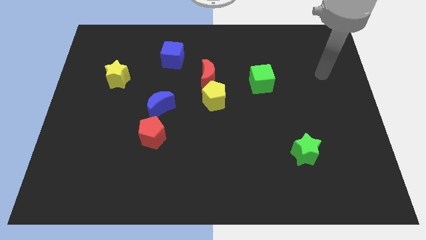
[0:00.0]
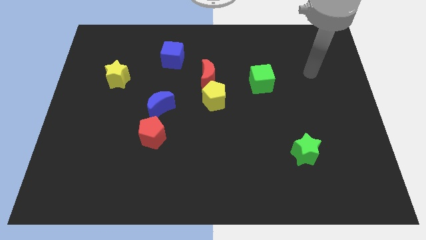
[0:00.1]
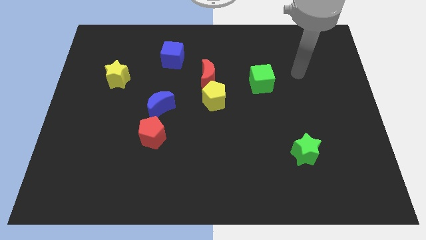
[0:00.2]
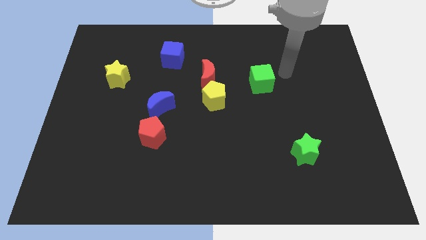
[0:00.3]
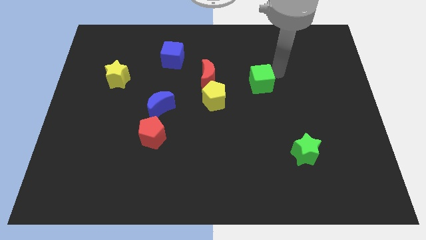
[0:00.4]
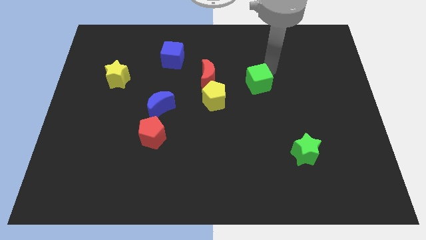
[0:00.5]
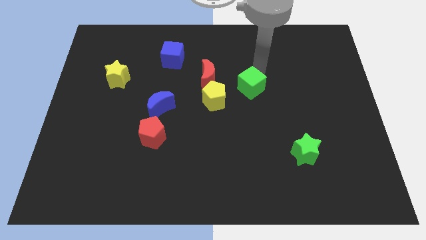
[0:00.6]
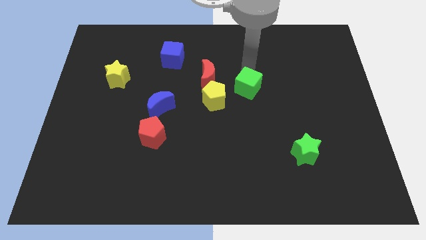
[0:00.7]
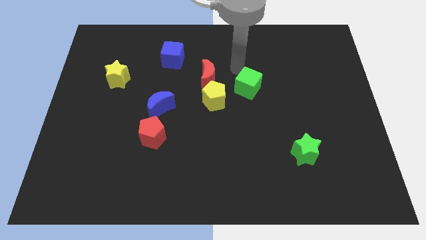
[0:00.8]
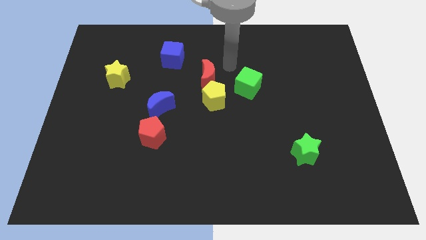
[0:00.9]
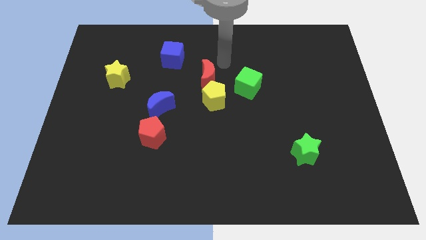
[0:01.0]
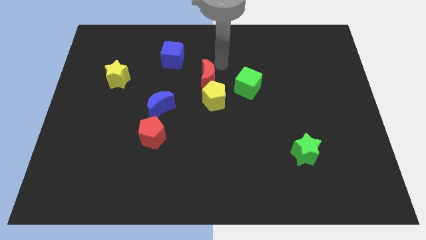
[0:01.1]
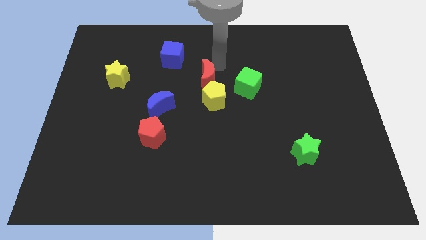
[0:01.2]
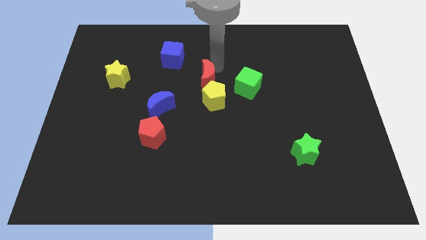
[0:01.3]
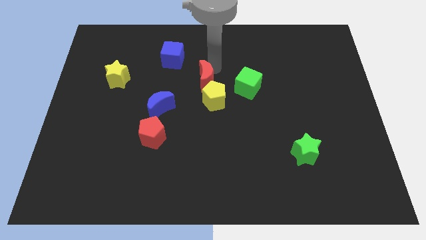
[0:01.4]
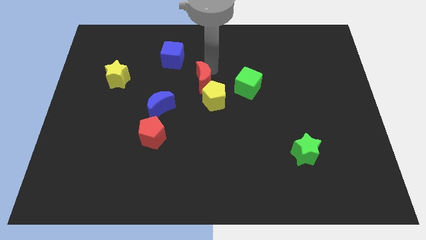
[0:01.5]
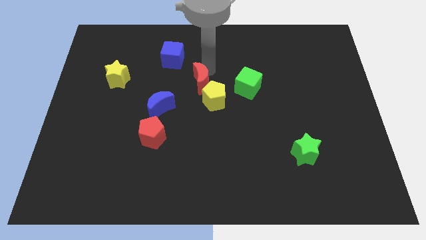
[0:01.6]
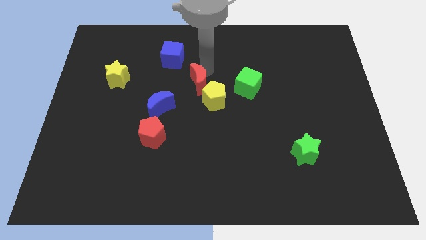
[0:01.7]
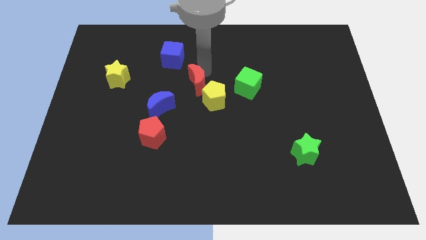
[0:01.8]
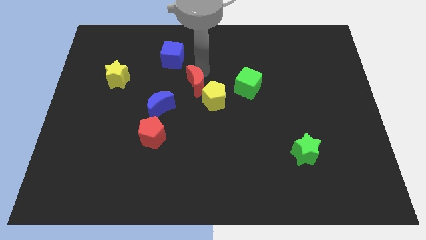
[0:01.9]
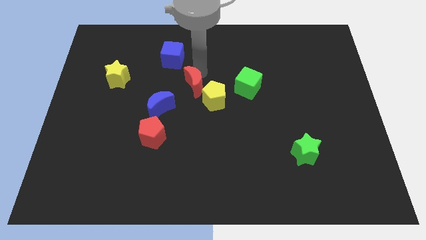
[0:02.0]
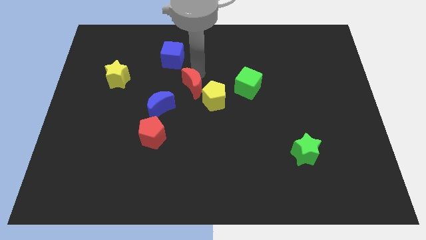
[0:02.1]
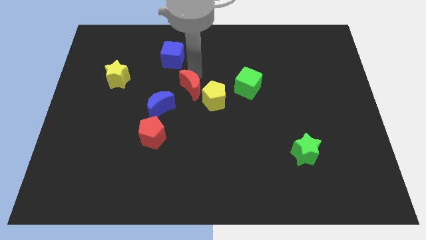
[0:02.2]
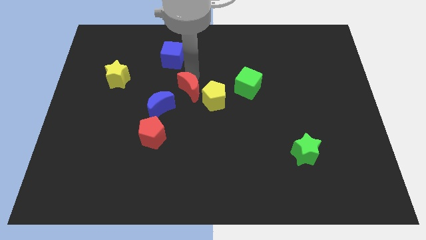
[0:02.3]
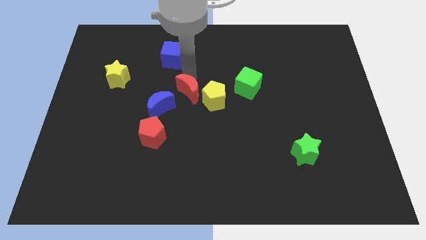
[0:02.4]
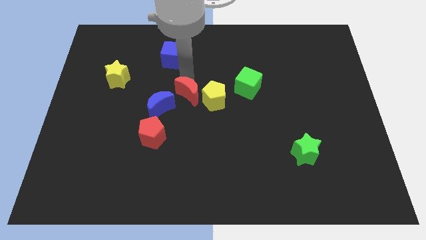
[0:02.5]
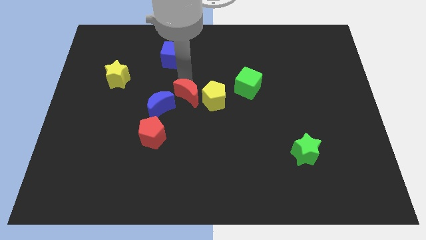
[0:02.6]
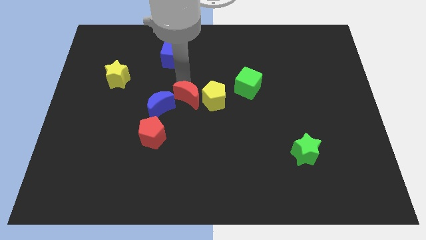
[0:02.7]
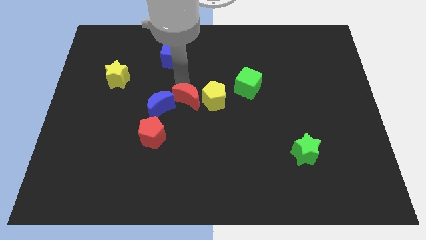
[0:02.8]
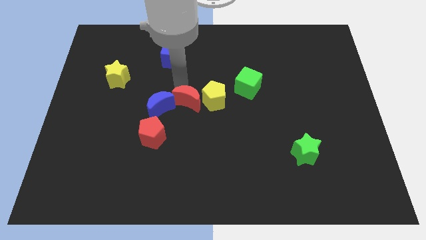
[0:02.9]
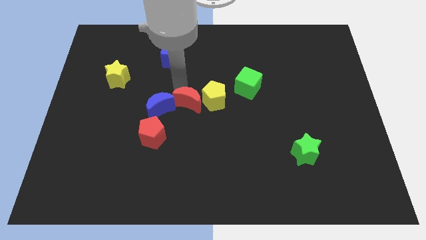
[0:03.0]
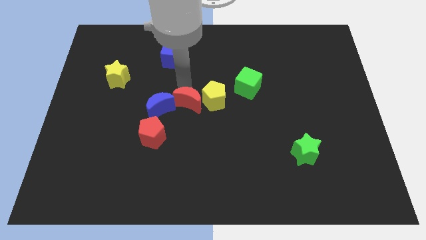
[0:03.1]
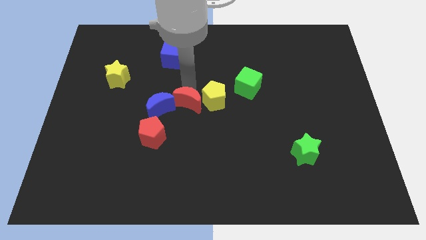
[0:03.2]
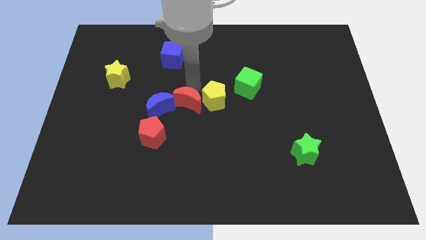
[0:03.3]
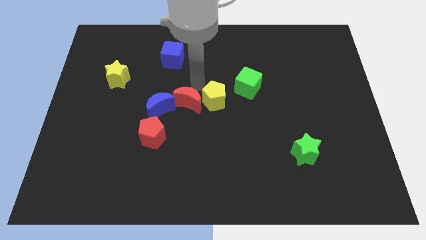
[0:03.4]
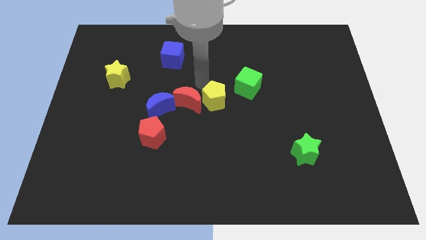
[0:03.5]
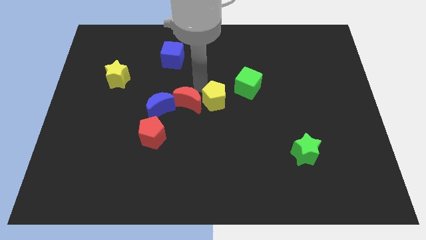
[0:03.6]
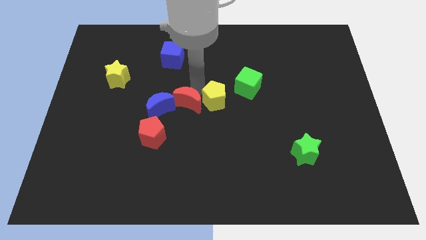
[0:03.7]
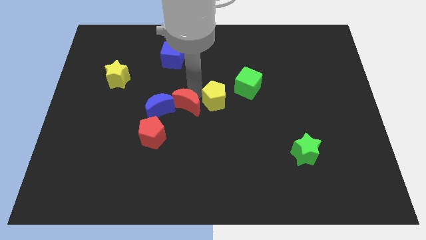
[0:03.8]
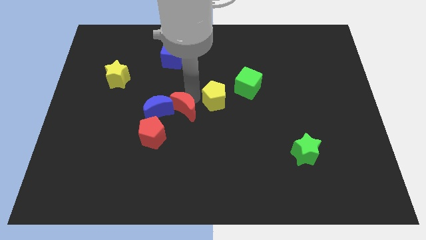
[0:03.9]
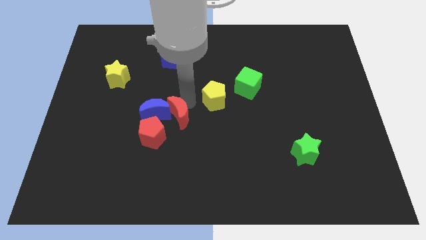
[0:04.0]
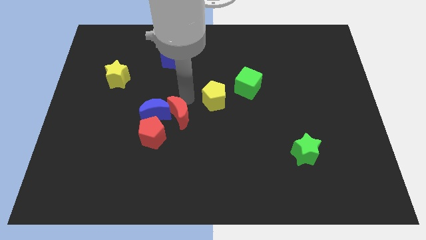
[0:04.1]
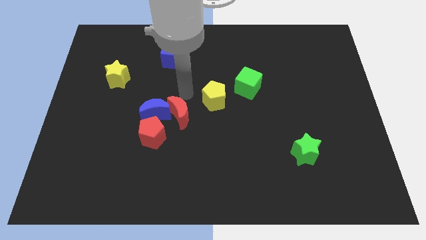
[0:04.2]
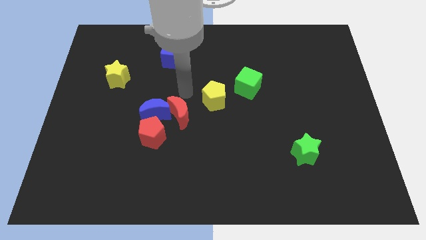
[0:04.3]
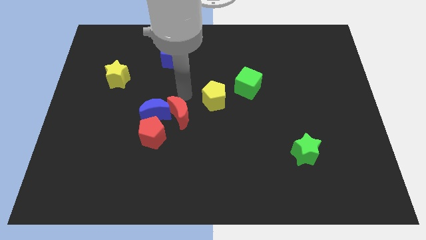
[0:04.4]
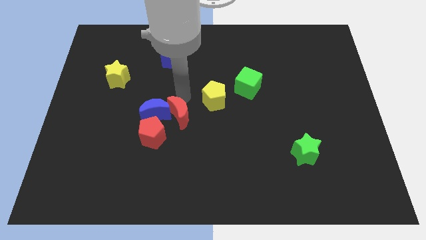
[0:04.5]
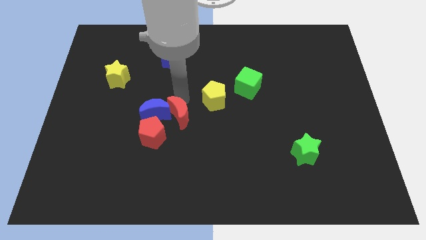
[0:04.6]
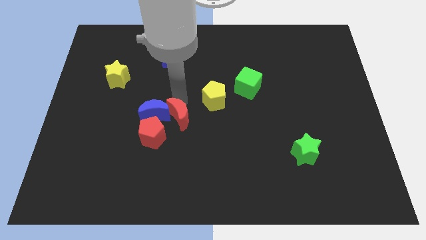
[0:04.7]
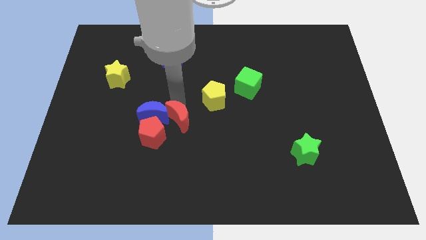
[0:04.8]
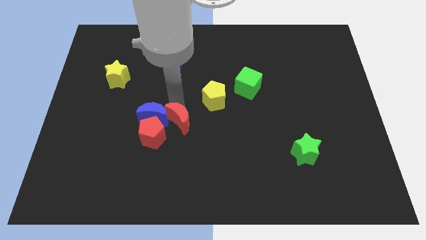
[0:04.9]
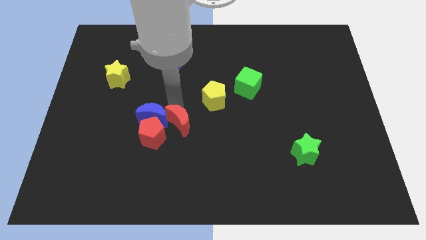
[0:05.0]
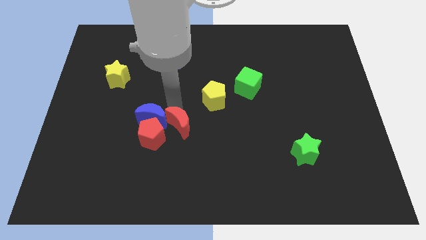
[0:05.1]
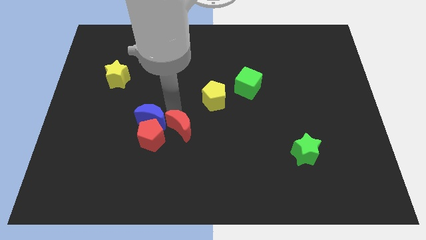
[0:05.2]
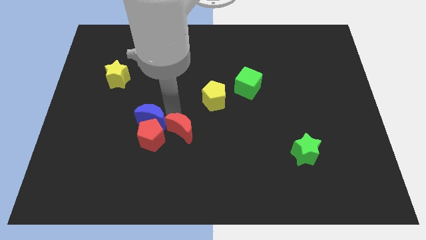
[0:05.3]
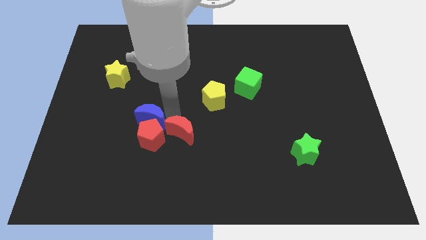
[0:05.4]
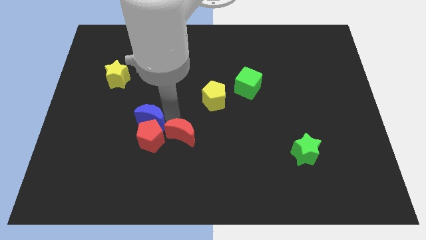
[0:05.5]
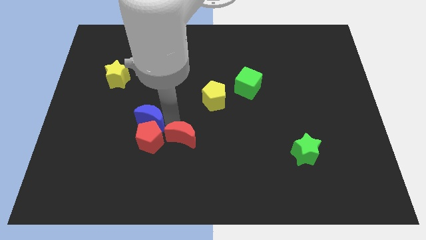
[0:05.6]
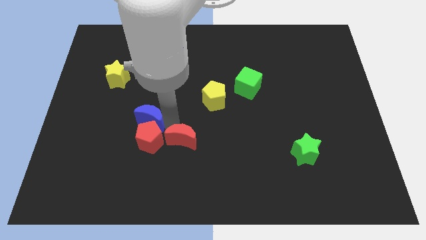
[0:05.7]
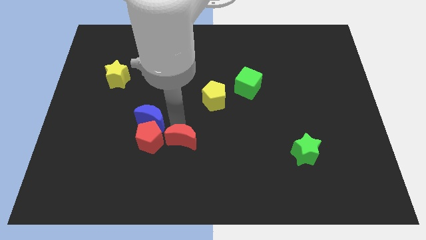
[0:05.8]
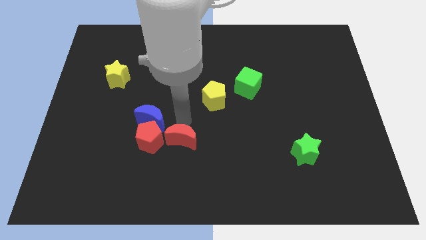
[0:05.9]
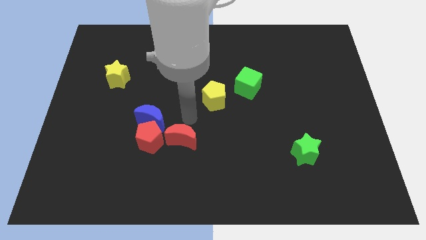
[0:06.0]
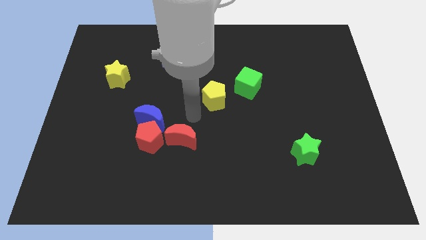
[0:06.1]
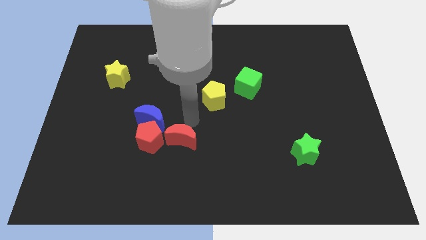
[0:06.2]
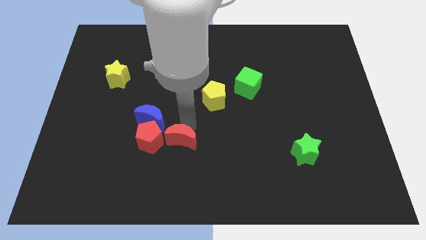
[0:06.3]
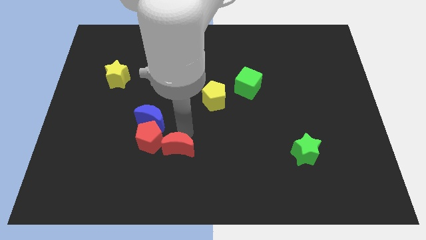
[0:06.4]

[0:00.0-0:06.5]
push the red moon diagonally down and to the right of the red pentagon

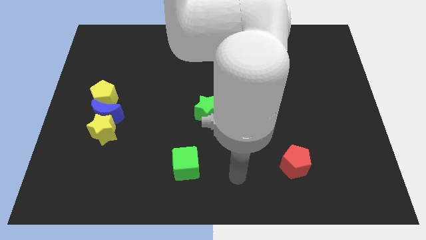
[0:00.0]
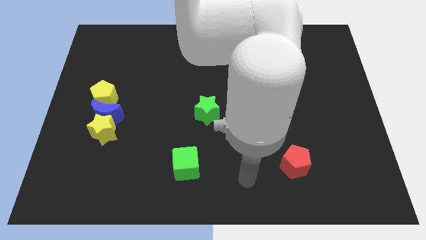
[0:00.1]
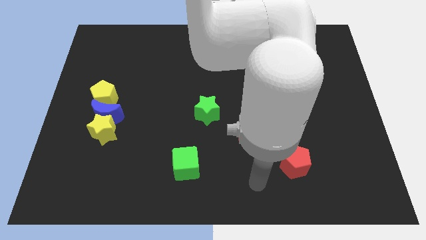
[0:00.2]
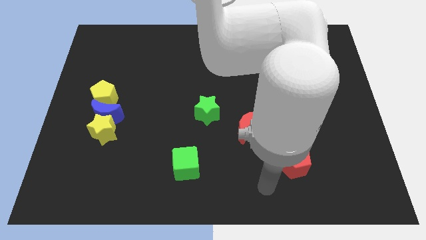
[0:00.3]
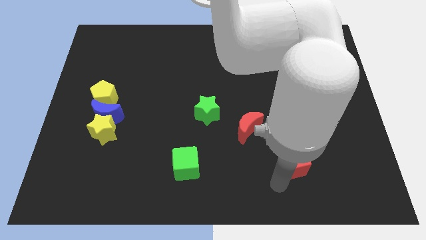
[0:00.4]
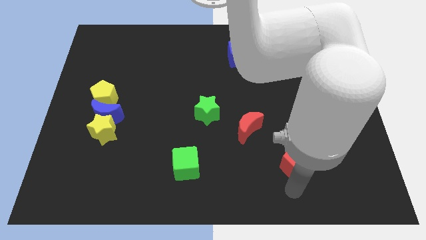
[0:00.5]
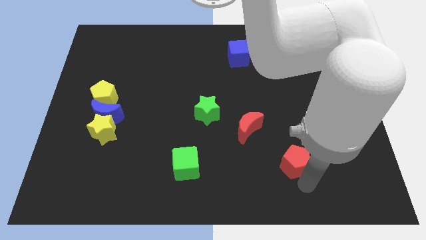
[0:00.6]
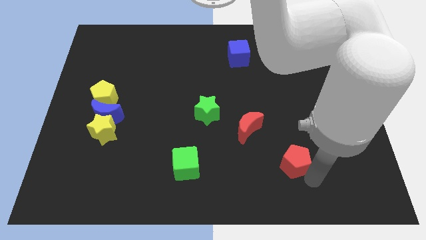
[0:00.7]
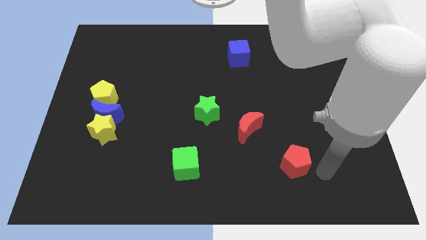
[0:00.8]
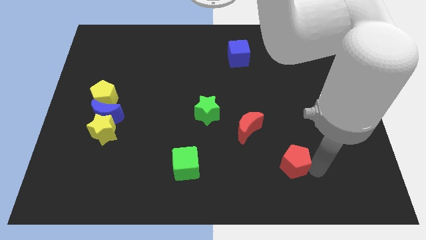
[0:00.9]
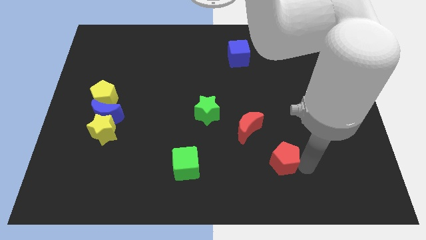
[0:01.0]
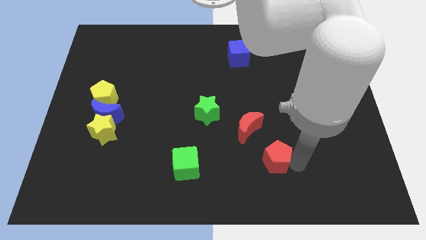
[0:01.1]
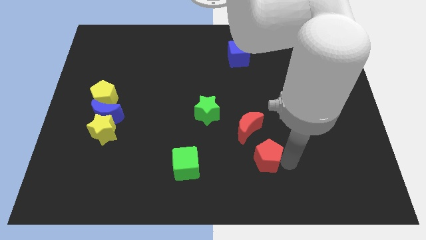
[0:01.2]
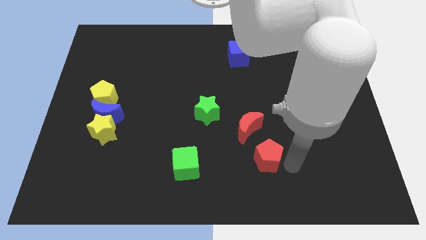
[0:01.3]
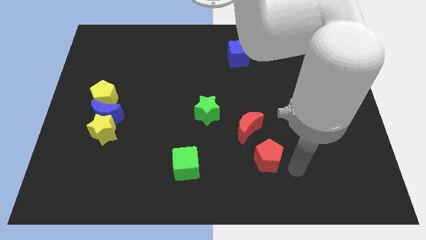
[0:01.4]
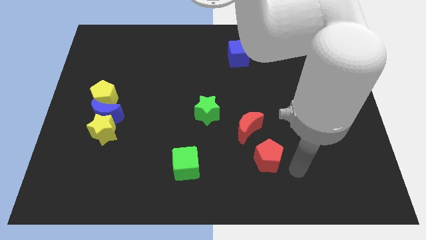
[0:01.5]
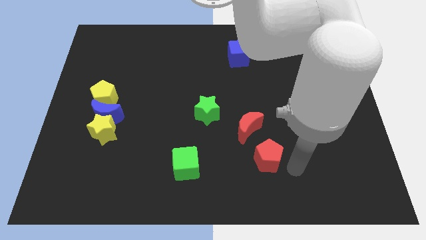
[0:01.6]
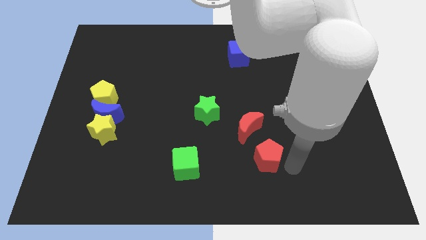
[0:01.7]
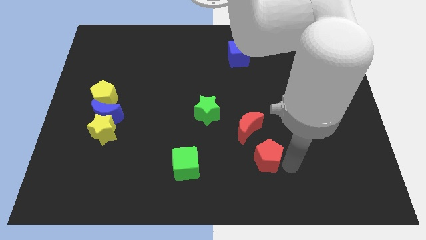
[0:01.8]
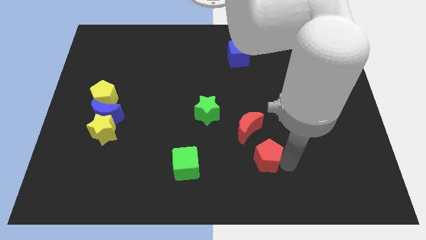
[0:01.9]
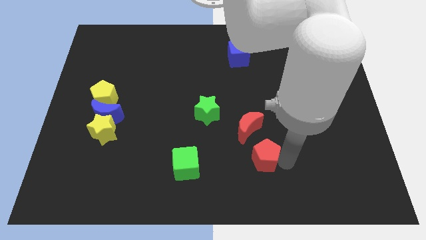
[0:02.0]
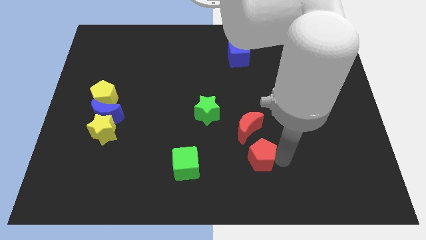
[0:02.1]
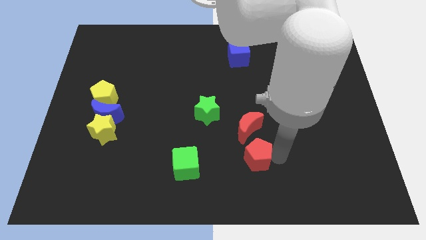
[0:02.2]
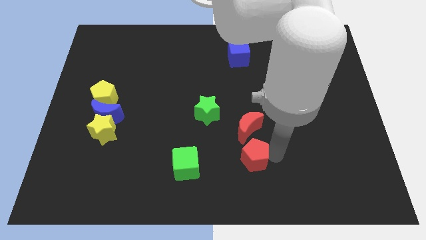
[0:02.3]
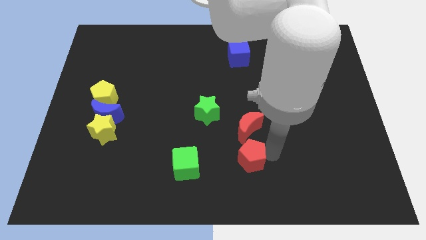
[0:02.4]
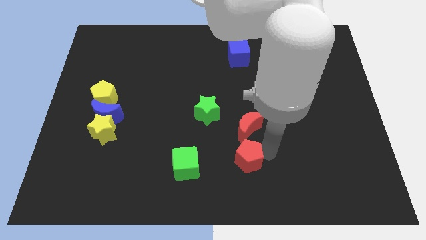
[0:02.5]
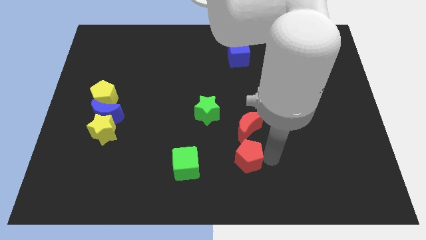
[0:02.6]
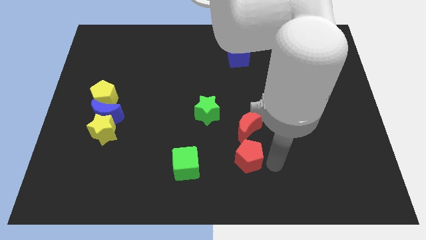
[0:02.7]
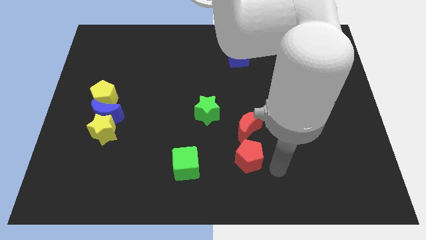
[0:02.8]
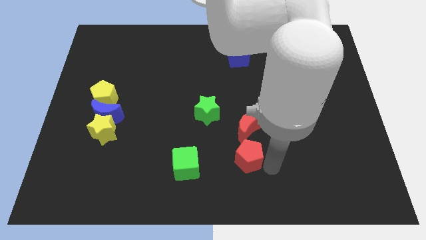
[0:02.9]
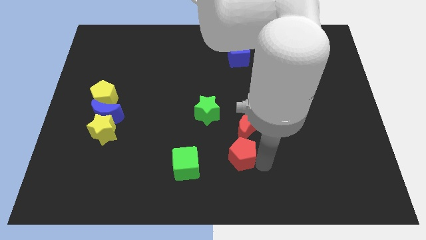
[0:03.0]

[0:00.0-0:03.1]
slide the red pentagon diagonally down and to the left of the red moon
